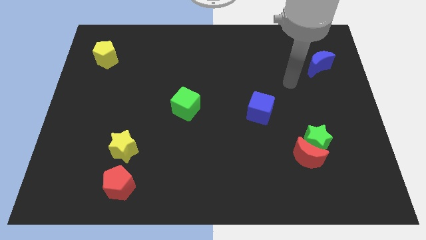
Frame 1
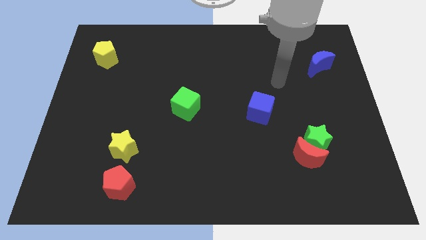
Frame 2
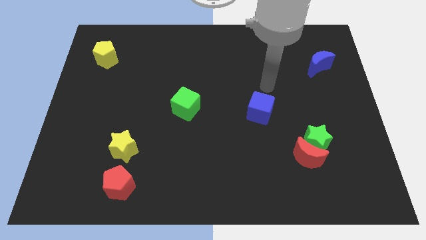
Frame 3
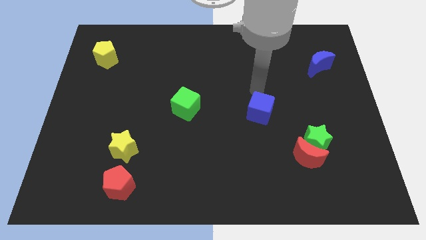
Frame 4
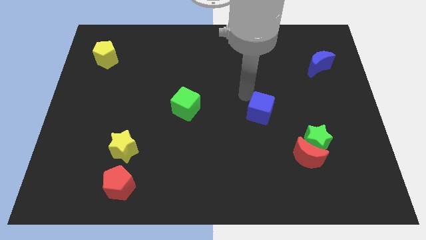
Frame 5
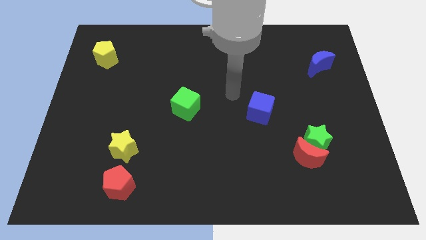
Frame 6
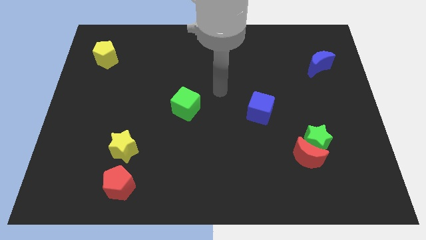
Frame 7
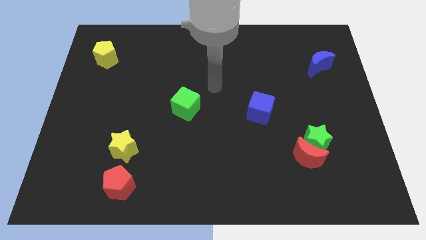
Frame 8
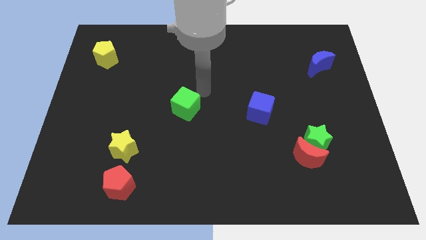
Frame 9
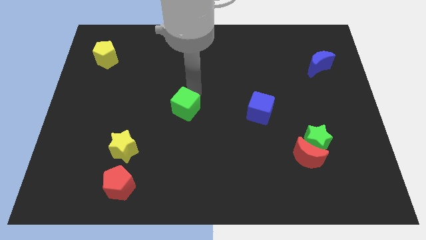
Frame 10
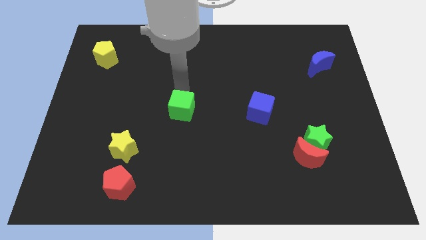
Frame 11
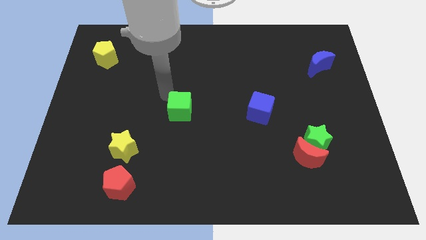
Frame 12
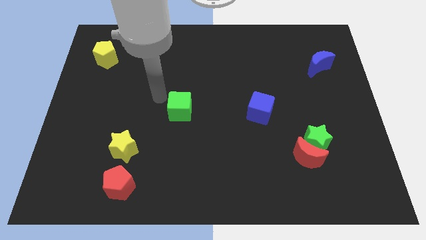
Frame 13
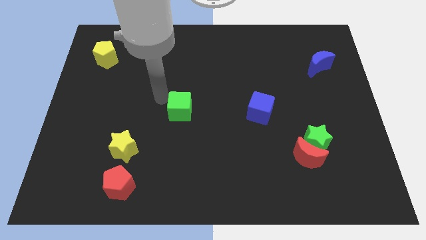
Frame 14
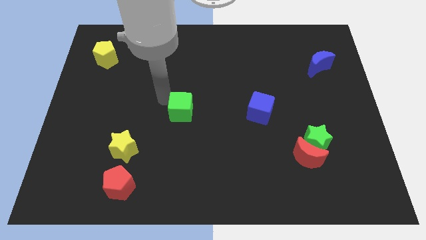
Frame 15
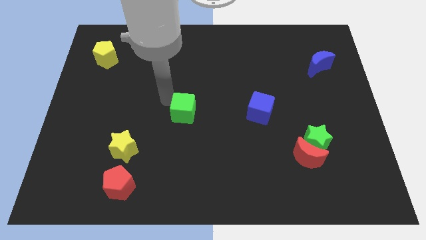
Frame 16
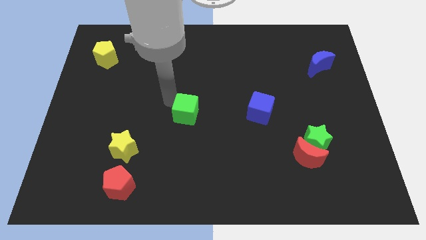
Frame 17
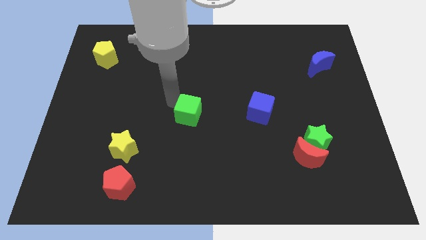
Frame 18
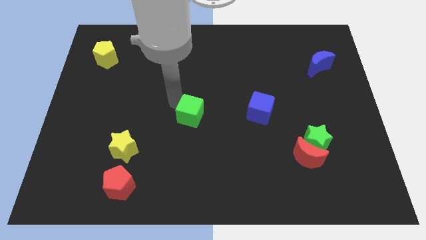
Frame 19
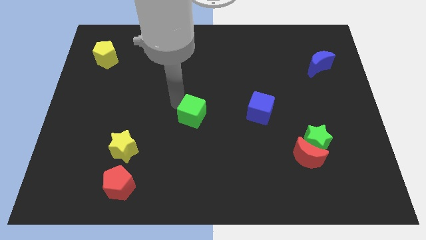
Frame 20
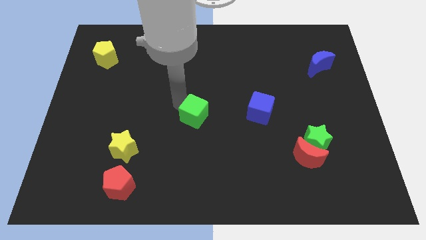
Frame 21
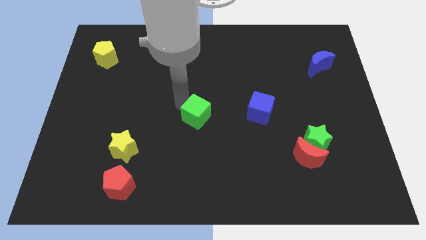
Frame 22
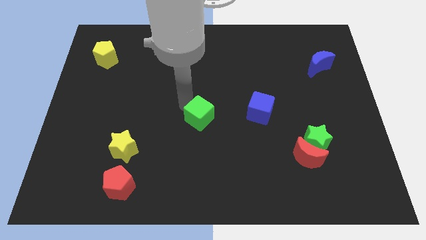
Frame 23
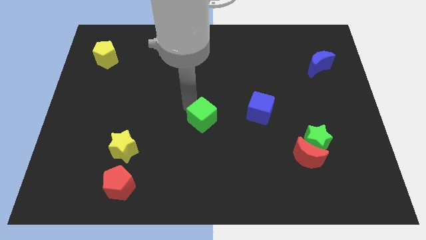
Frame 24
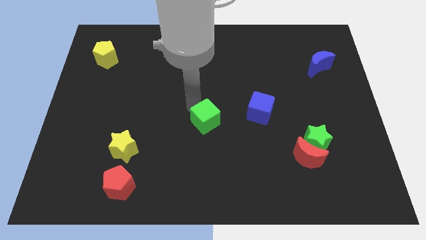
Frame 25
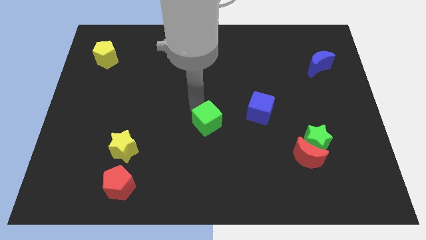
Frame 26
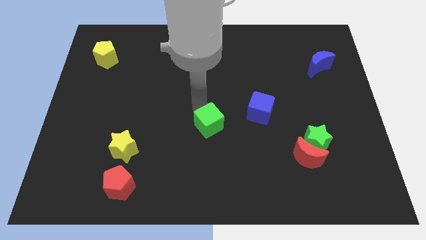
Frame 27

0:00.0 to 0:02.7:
move the green cube slightly down and right diagonally

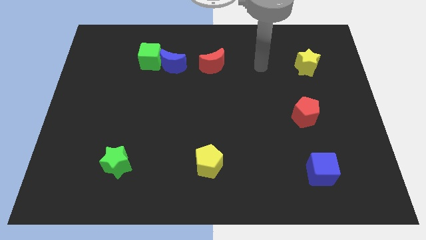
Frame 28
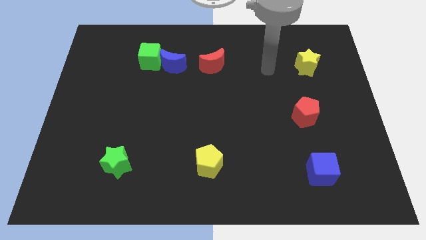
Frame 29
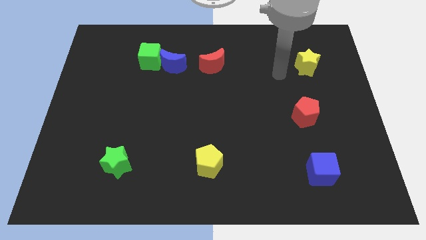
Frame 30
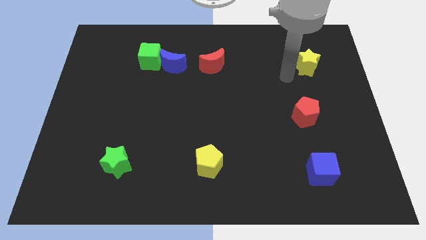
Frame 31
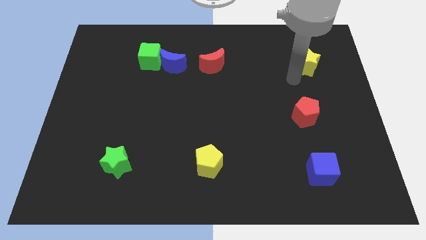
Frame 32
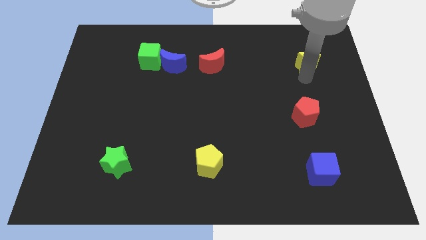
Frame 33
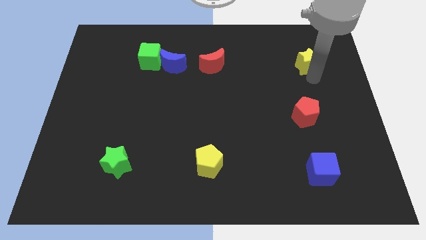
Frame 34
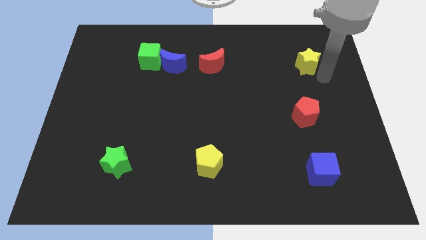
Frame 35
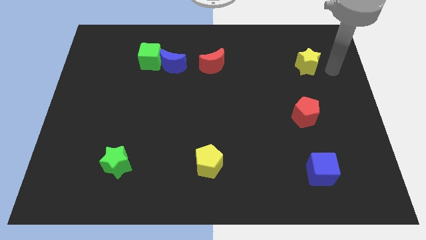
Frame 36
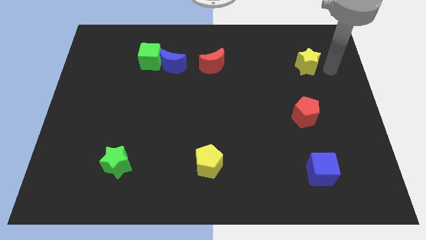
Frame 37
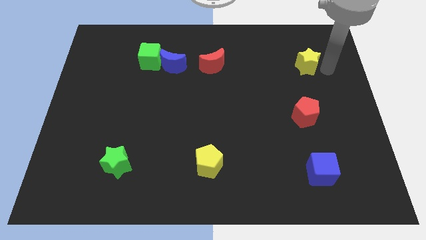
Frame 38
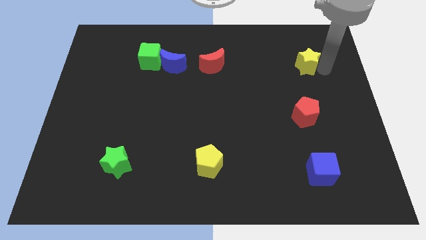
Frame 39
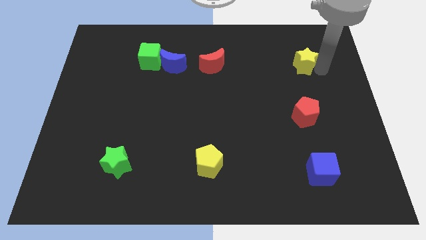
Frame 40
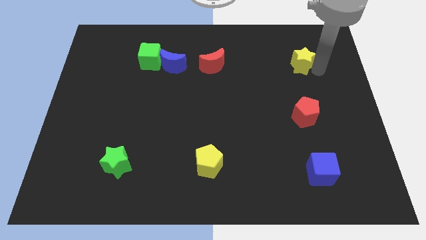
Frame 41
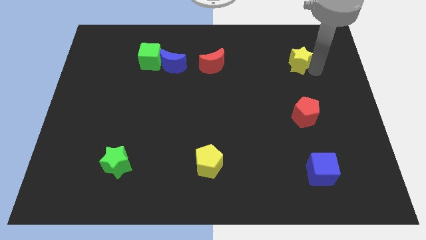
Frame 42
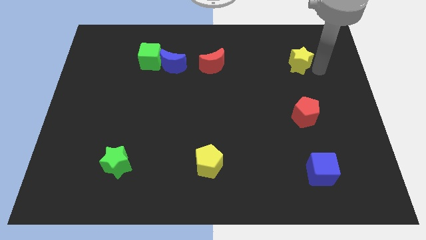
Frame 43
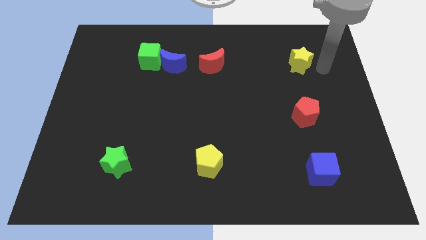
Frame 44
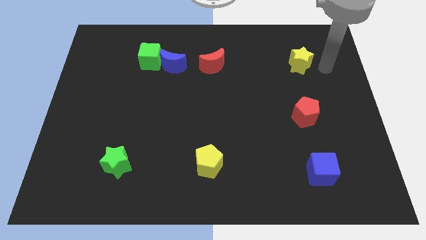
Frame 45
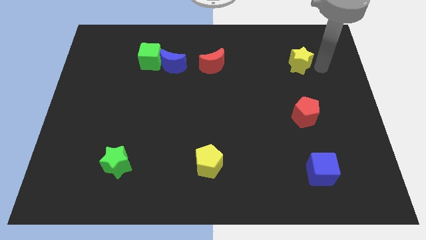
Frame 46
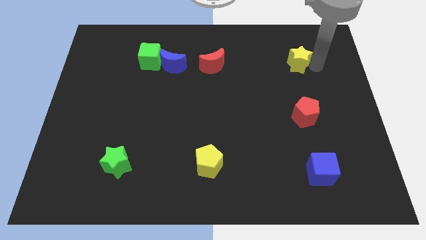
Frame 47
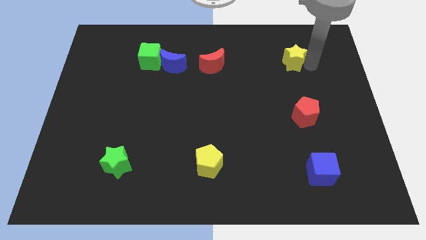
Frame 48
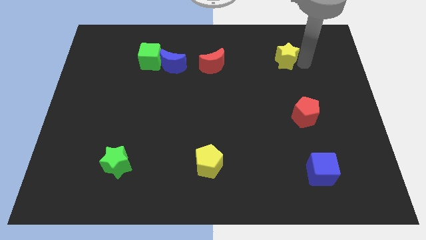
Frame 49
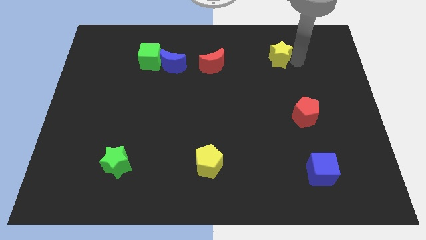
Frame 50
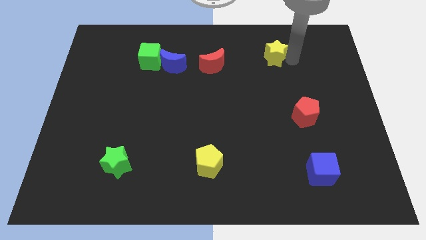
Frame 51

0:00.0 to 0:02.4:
slide the yellow star to the left a bit

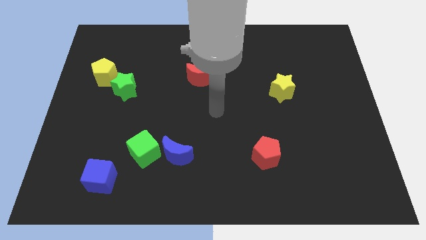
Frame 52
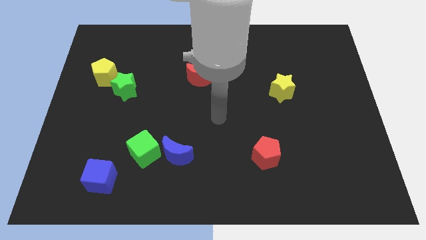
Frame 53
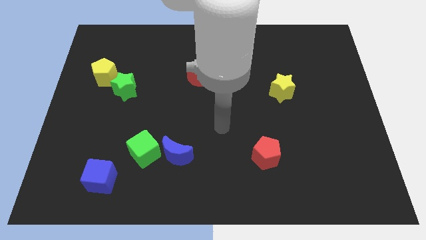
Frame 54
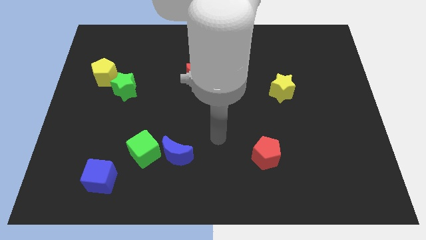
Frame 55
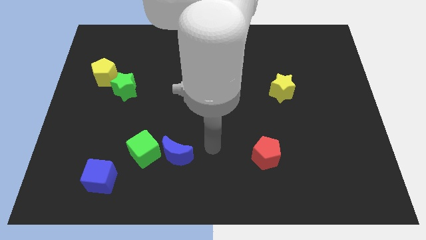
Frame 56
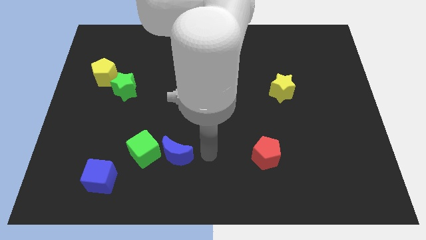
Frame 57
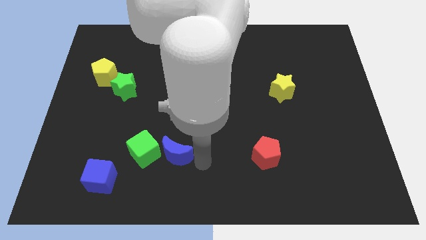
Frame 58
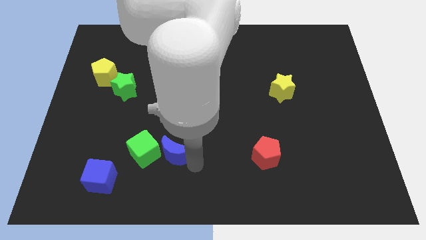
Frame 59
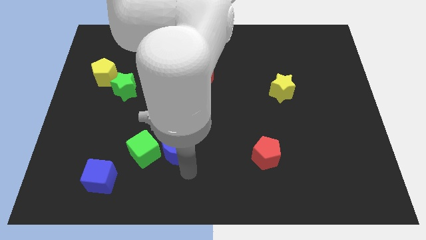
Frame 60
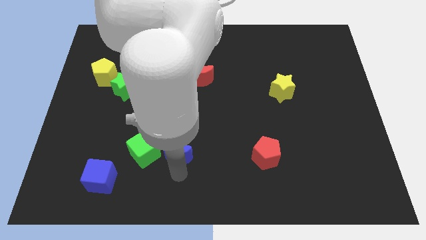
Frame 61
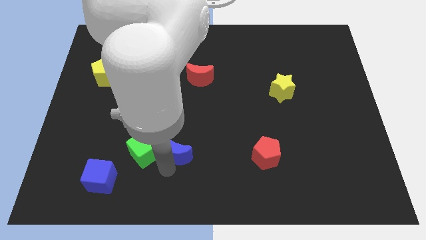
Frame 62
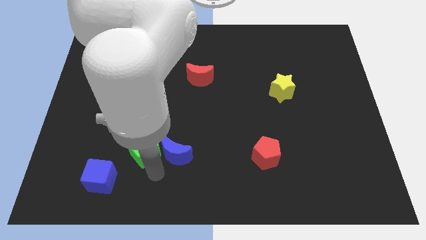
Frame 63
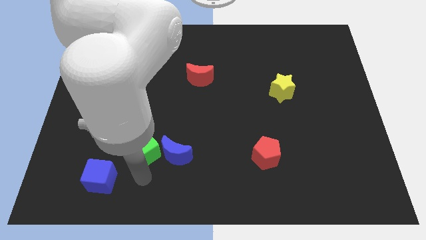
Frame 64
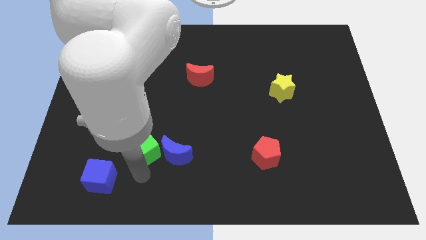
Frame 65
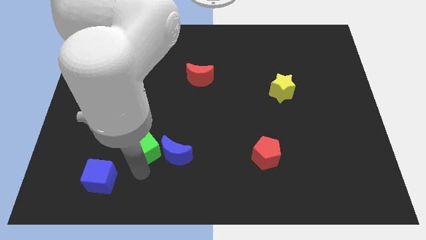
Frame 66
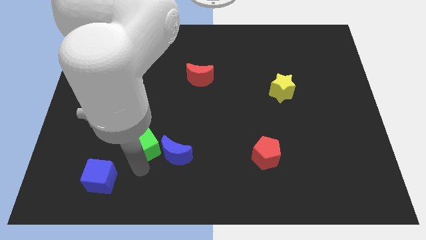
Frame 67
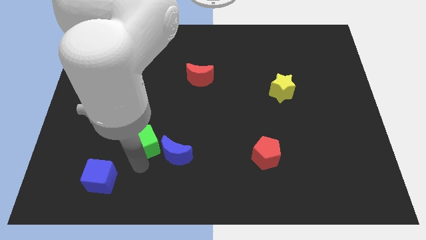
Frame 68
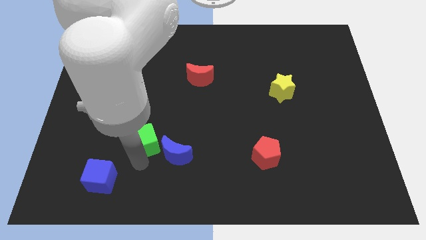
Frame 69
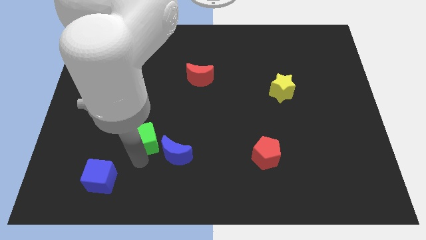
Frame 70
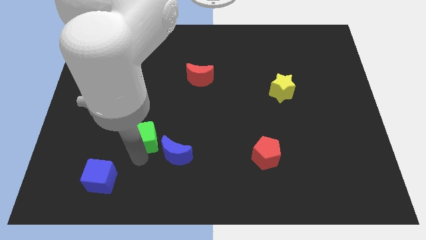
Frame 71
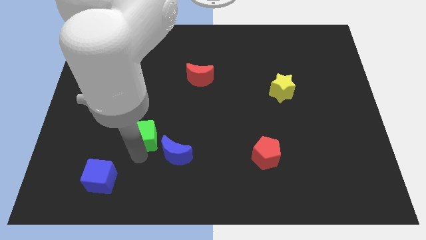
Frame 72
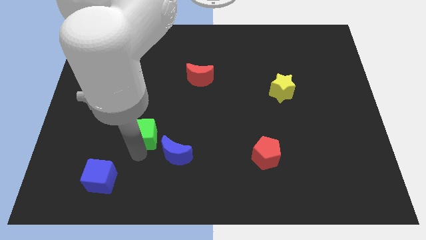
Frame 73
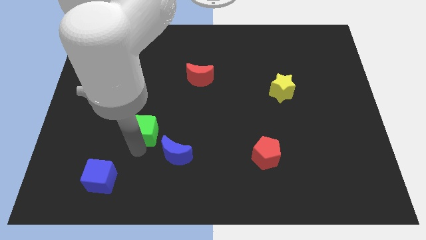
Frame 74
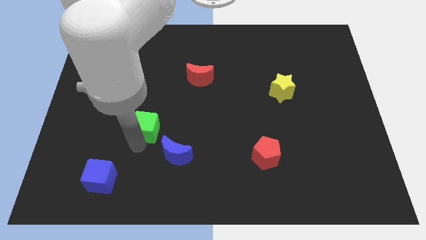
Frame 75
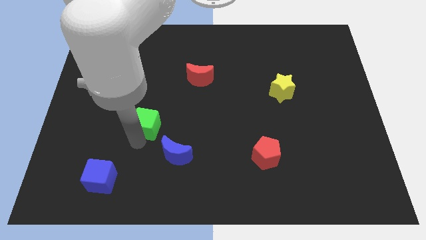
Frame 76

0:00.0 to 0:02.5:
move the green cube a bit up

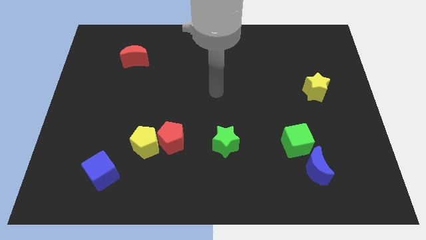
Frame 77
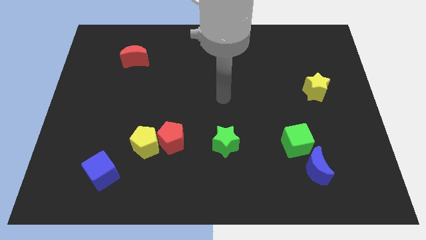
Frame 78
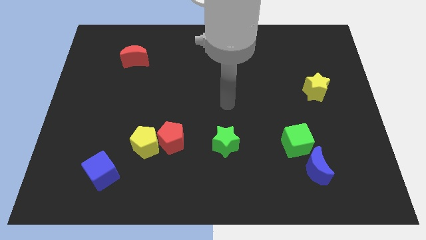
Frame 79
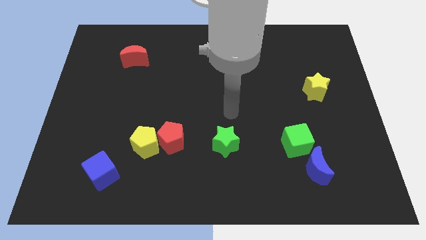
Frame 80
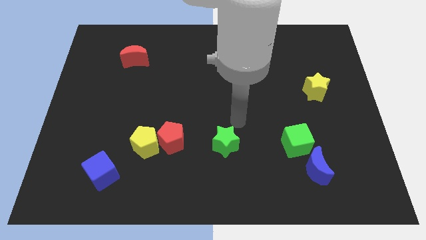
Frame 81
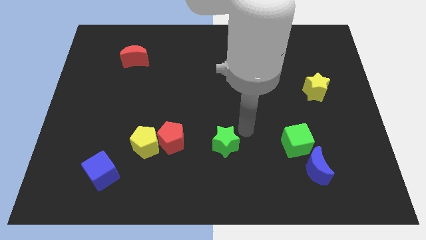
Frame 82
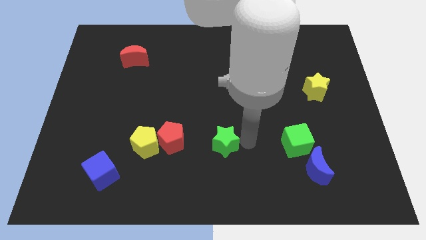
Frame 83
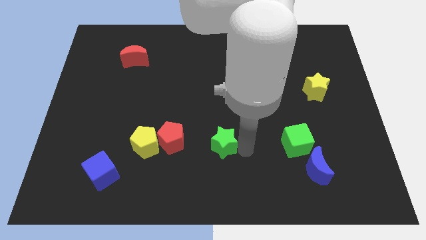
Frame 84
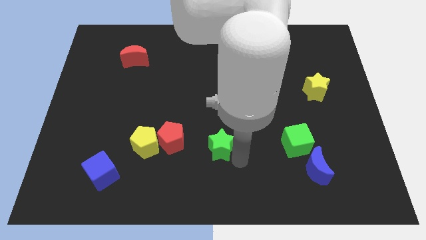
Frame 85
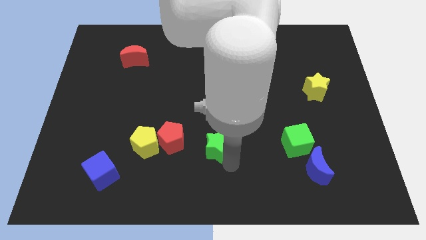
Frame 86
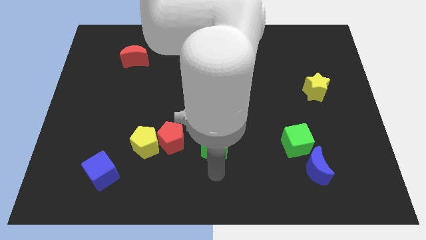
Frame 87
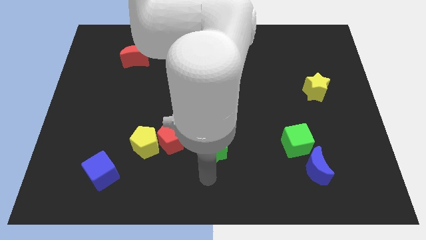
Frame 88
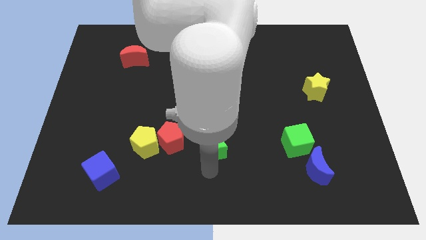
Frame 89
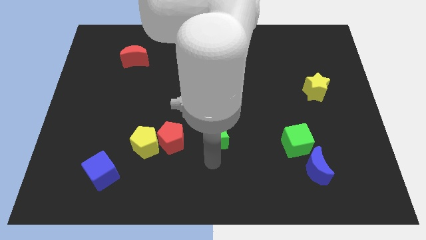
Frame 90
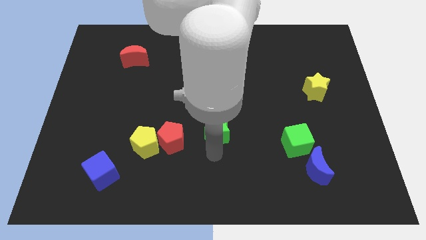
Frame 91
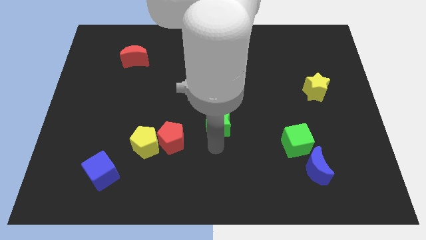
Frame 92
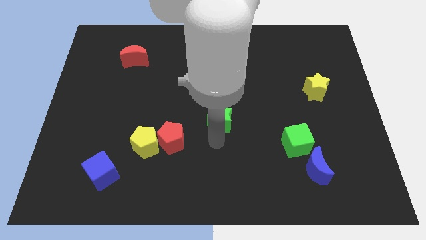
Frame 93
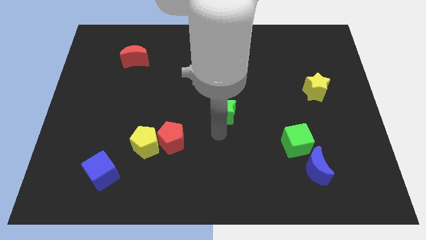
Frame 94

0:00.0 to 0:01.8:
slightly push the green star upwards
